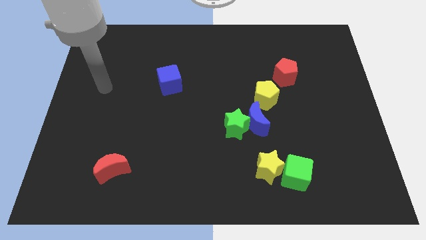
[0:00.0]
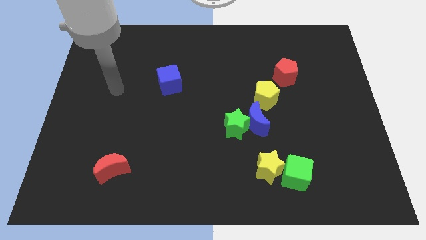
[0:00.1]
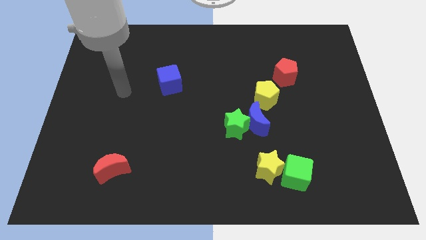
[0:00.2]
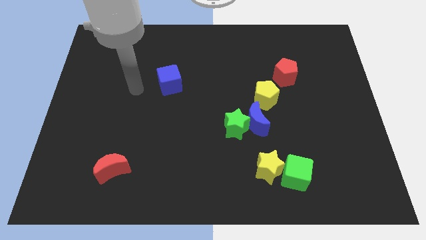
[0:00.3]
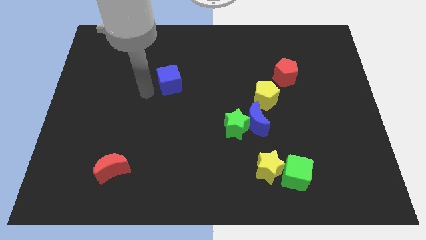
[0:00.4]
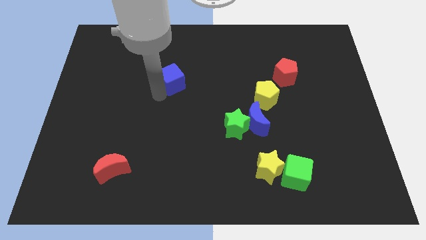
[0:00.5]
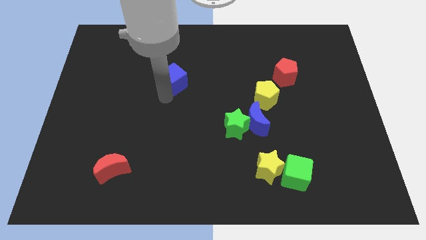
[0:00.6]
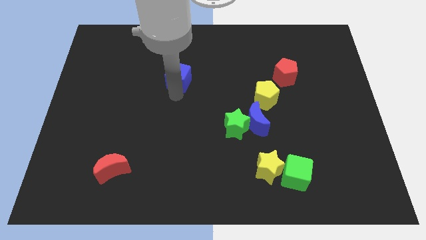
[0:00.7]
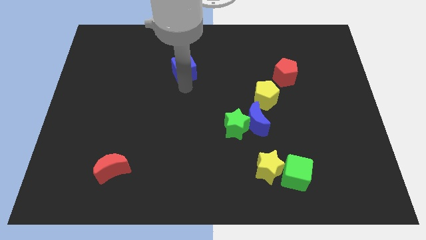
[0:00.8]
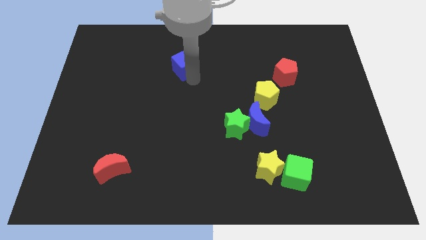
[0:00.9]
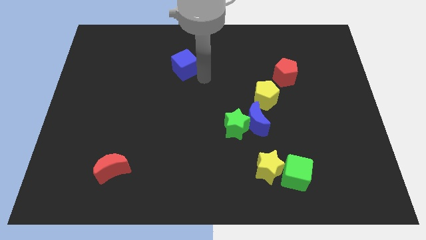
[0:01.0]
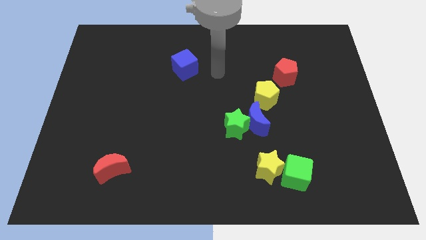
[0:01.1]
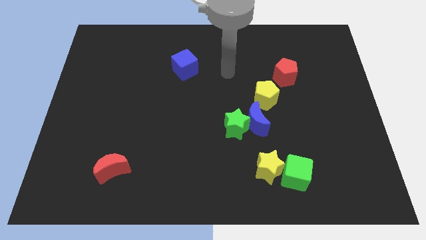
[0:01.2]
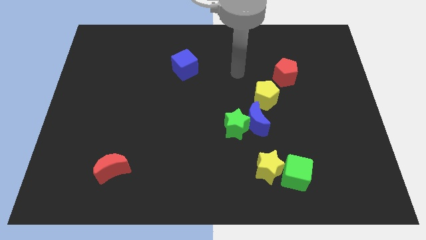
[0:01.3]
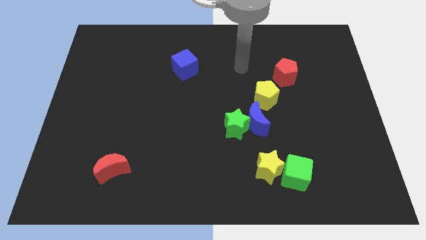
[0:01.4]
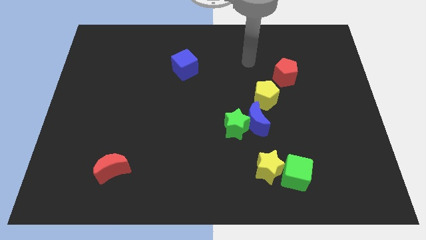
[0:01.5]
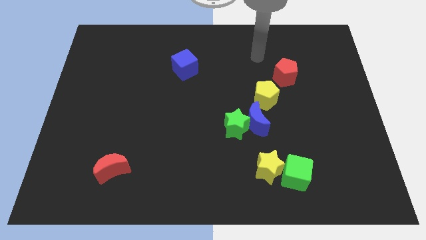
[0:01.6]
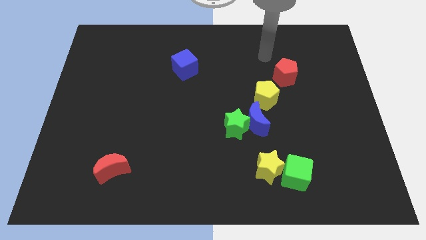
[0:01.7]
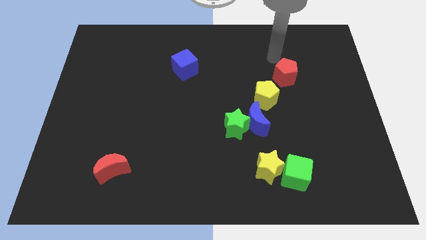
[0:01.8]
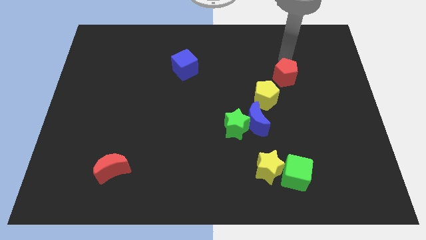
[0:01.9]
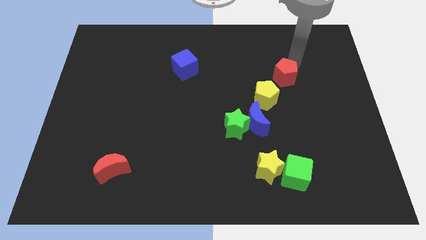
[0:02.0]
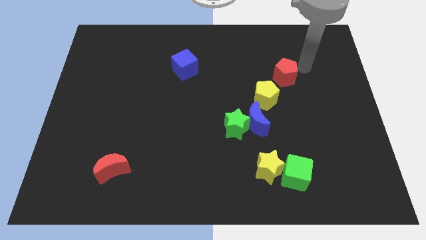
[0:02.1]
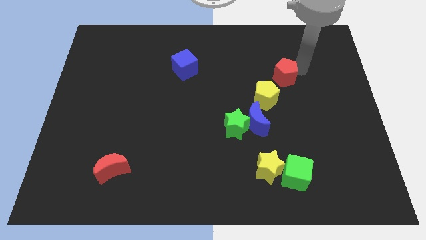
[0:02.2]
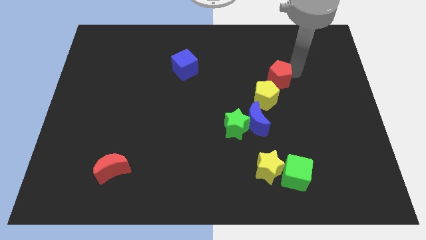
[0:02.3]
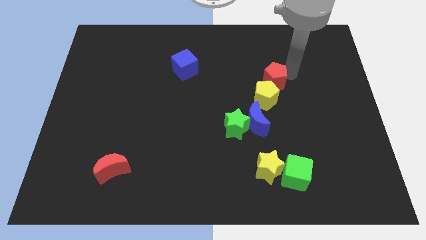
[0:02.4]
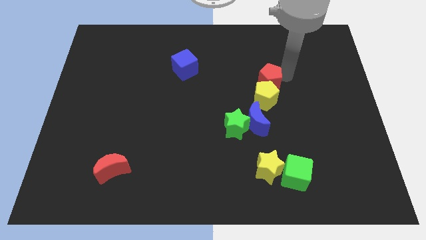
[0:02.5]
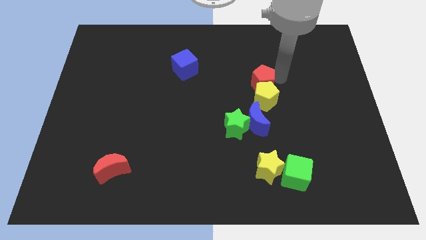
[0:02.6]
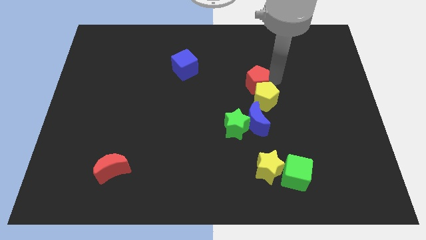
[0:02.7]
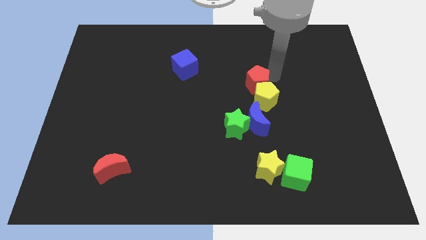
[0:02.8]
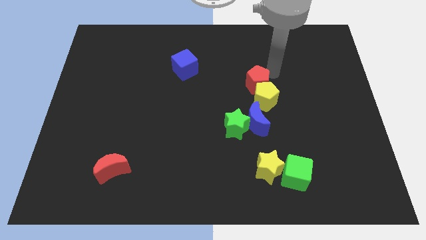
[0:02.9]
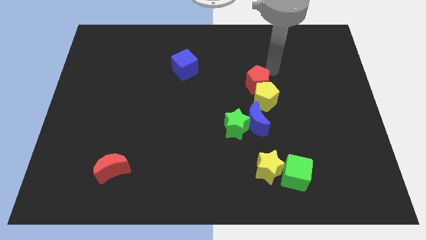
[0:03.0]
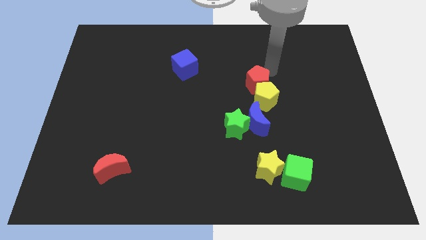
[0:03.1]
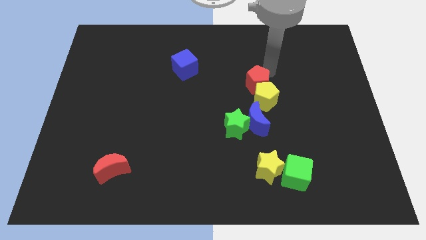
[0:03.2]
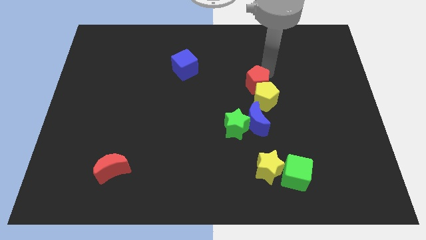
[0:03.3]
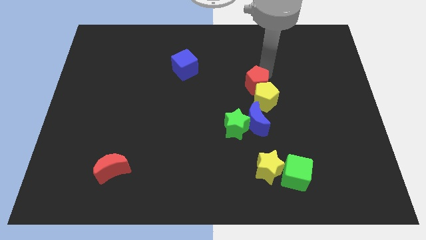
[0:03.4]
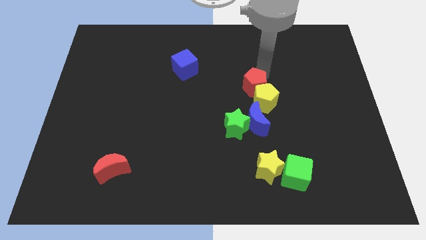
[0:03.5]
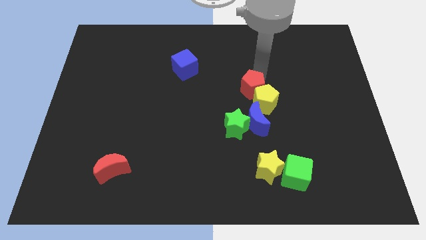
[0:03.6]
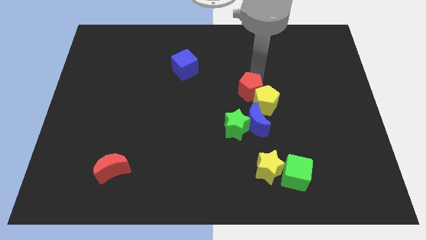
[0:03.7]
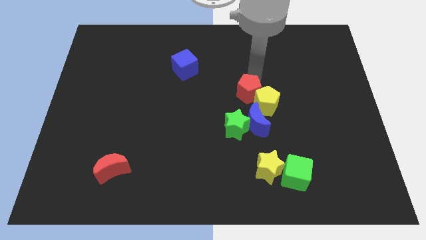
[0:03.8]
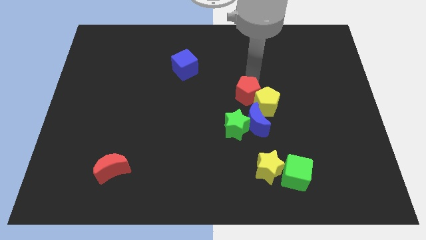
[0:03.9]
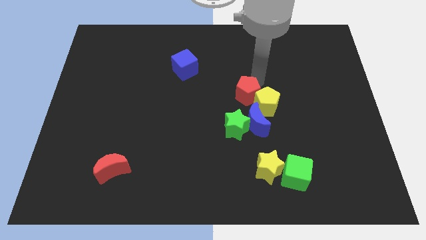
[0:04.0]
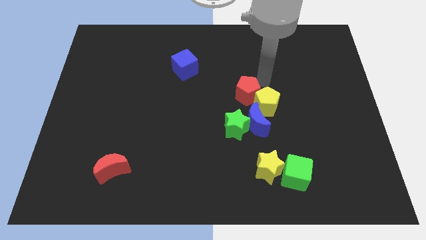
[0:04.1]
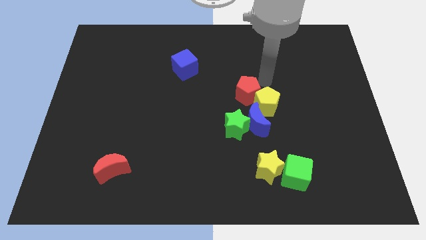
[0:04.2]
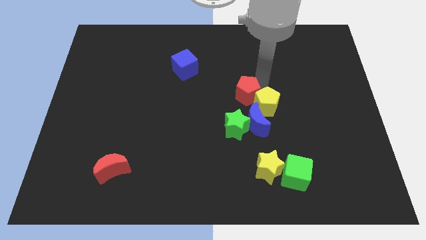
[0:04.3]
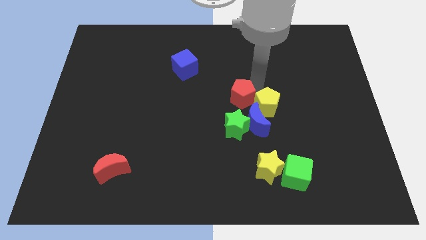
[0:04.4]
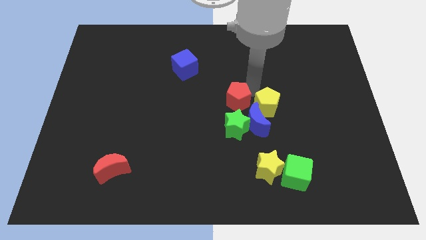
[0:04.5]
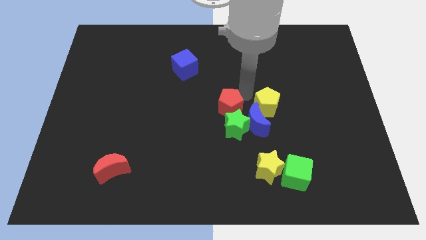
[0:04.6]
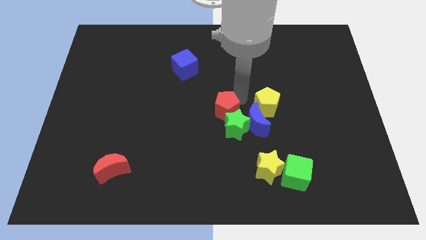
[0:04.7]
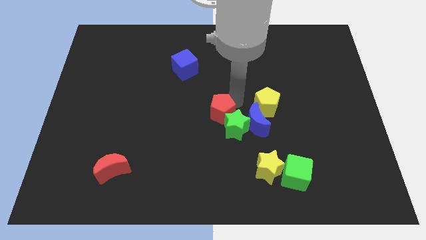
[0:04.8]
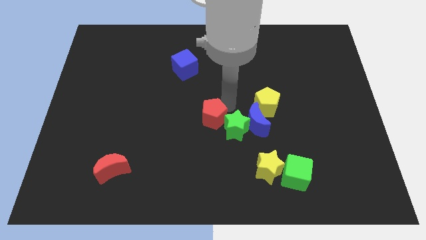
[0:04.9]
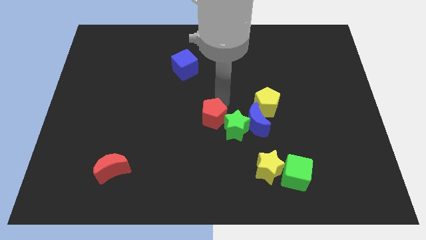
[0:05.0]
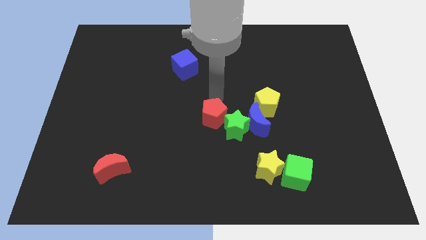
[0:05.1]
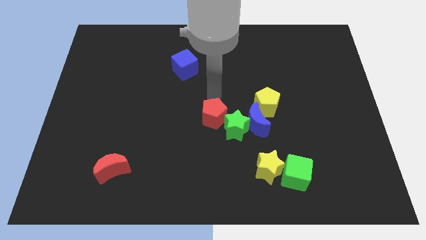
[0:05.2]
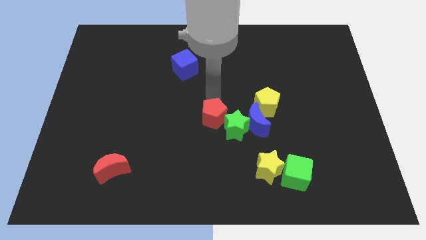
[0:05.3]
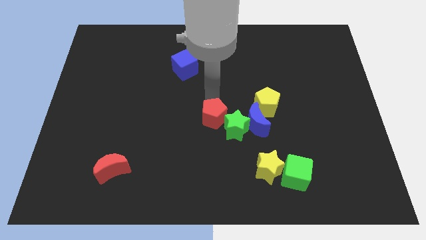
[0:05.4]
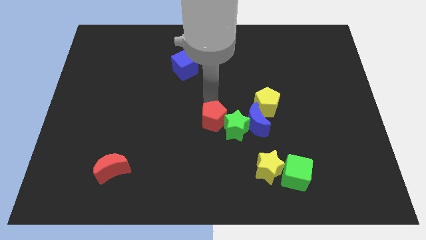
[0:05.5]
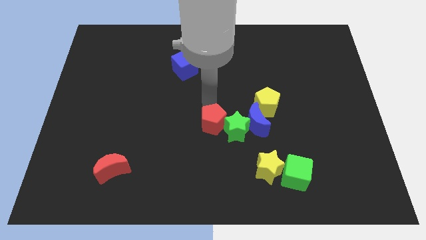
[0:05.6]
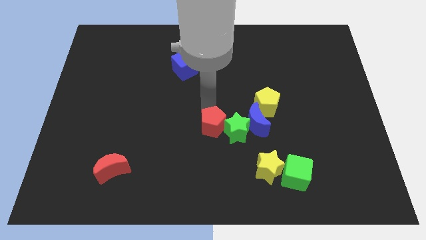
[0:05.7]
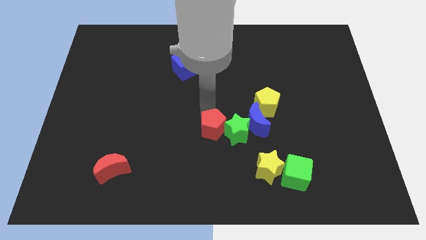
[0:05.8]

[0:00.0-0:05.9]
push the red pentagon to the bottom left of the green star
